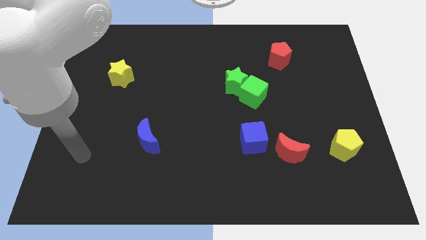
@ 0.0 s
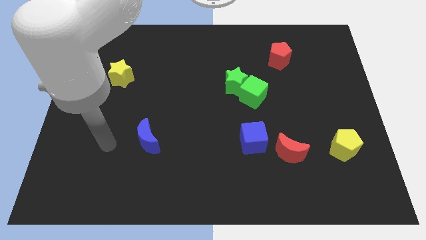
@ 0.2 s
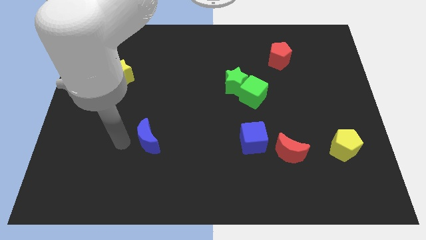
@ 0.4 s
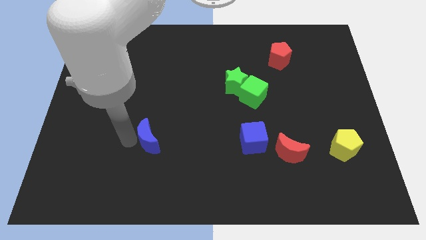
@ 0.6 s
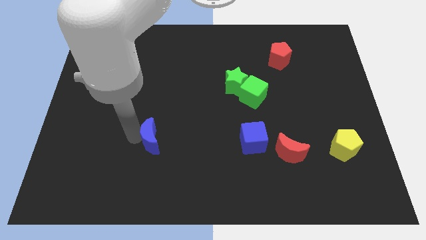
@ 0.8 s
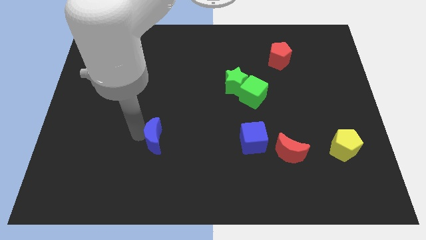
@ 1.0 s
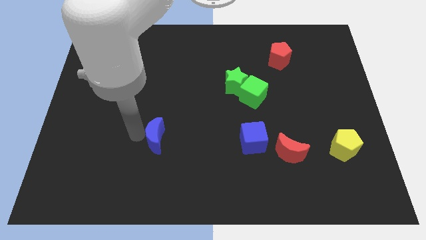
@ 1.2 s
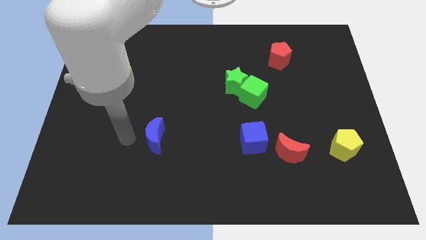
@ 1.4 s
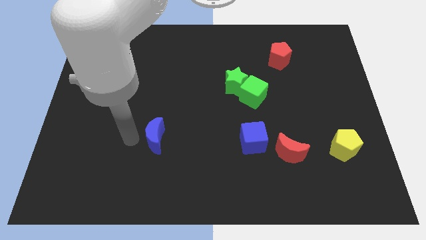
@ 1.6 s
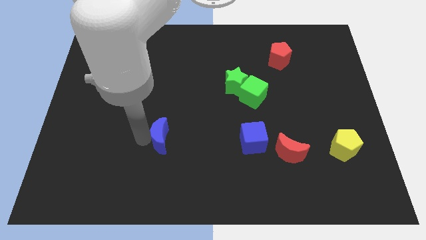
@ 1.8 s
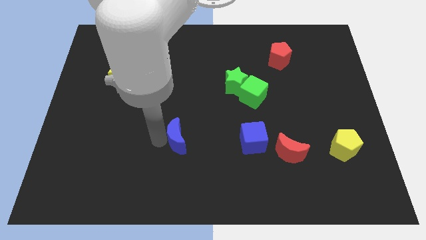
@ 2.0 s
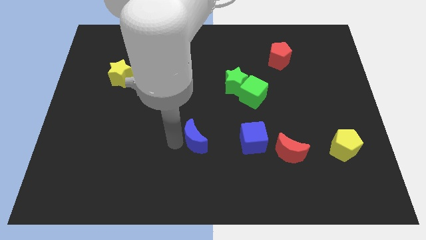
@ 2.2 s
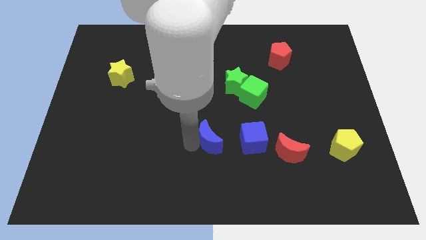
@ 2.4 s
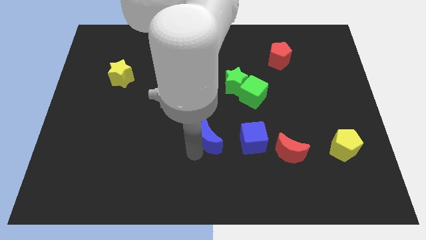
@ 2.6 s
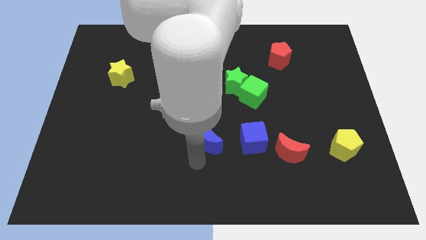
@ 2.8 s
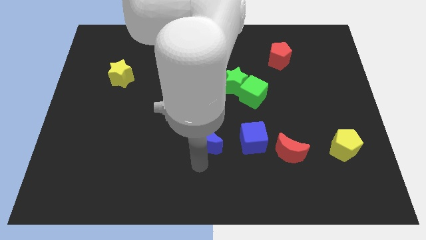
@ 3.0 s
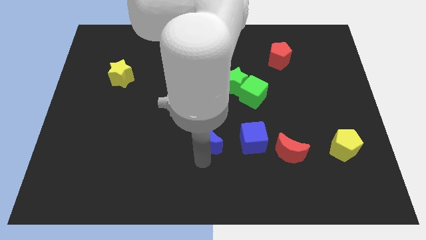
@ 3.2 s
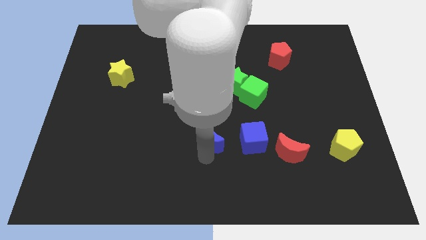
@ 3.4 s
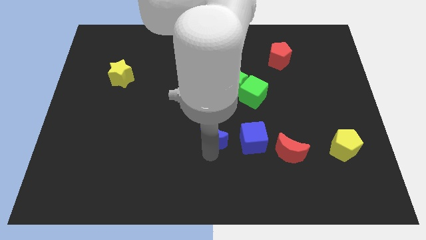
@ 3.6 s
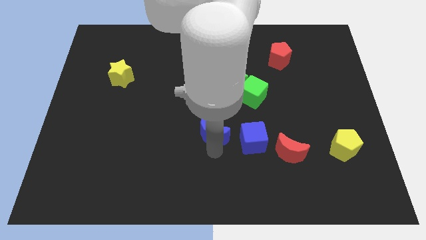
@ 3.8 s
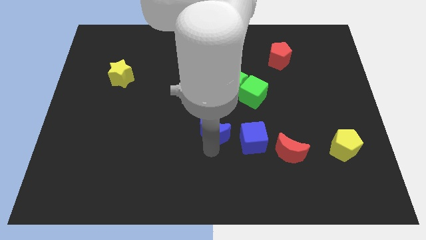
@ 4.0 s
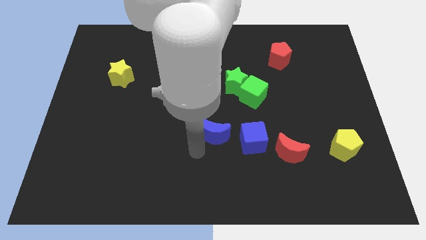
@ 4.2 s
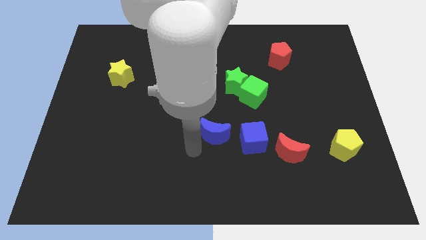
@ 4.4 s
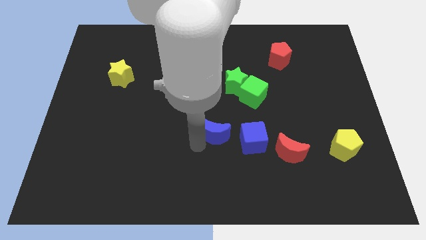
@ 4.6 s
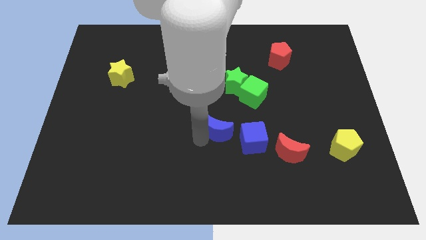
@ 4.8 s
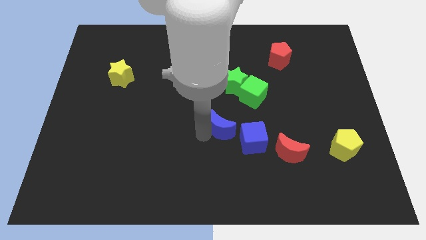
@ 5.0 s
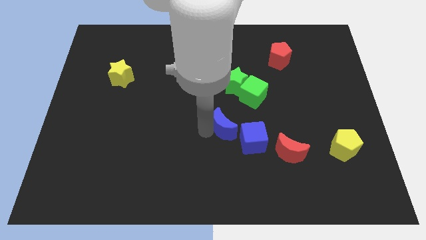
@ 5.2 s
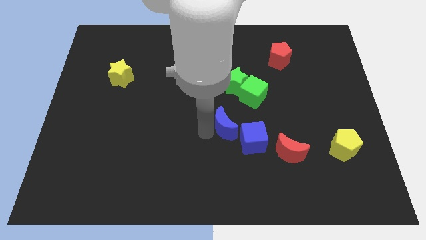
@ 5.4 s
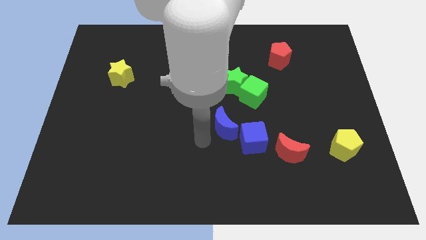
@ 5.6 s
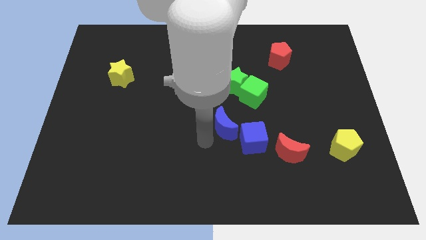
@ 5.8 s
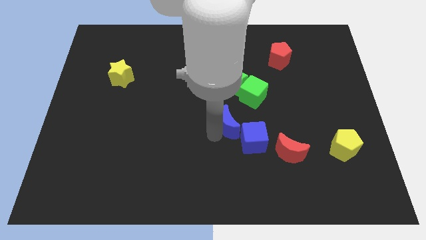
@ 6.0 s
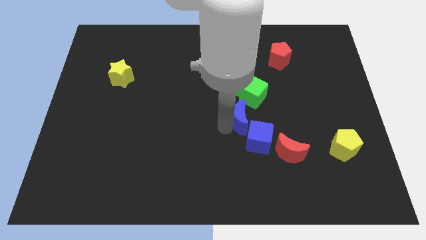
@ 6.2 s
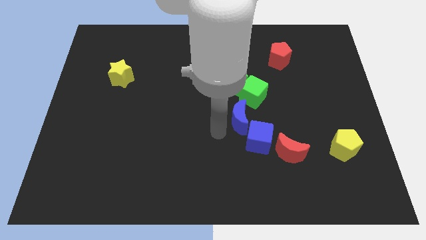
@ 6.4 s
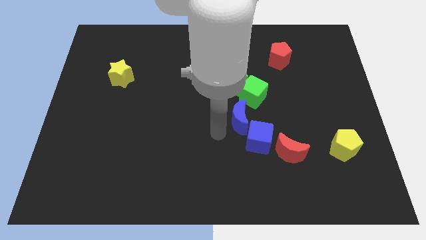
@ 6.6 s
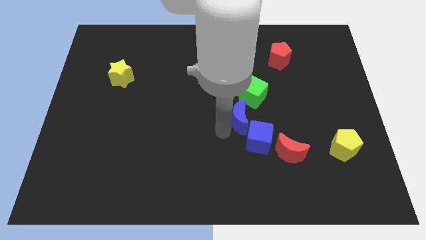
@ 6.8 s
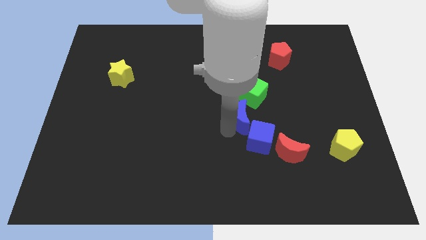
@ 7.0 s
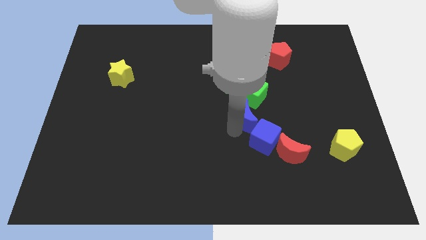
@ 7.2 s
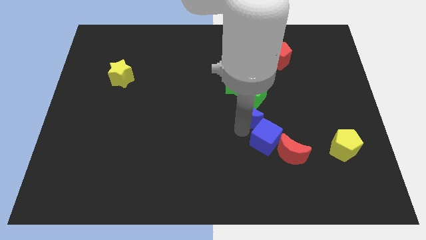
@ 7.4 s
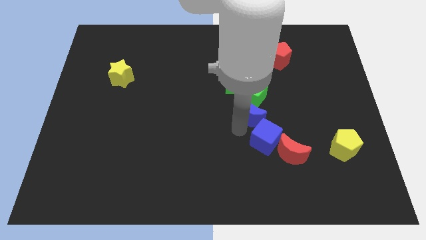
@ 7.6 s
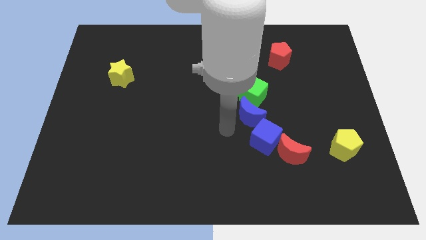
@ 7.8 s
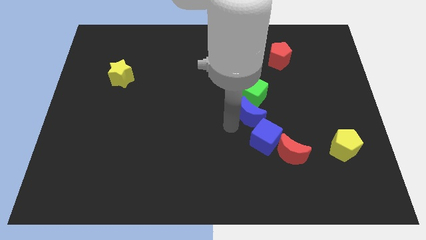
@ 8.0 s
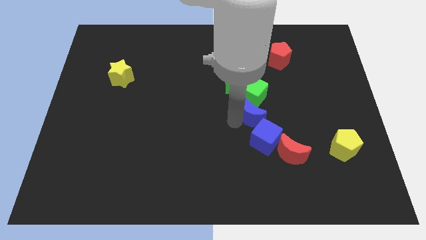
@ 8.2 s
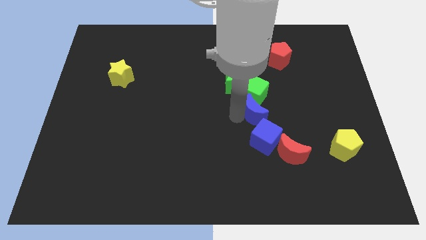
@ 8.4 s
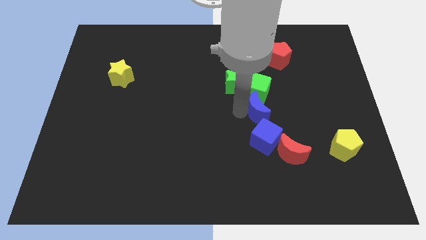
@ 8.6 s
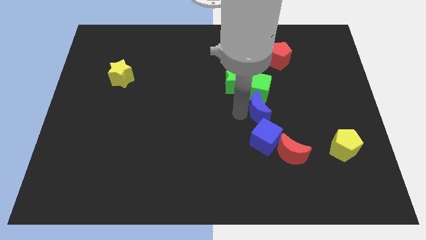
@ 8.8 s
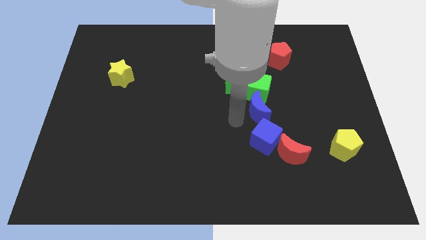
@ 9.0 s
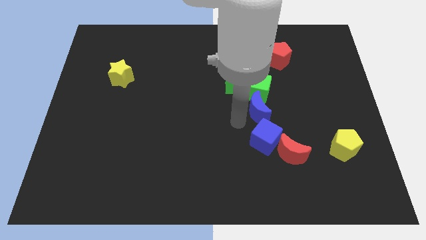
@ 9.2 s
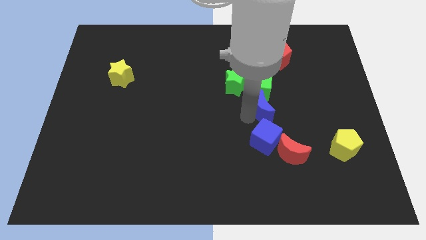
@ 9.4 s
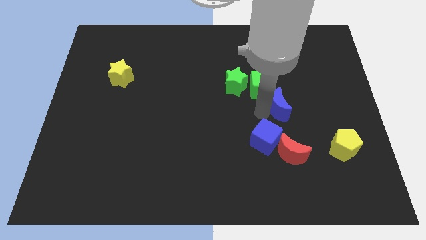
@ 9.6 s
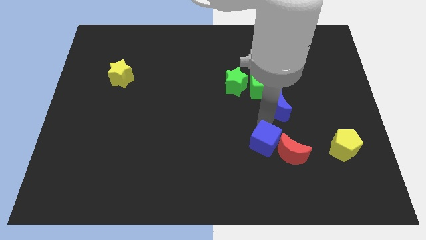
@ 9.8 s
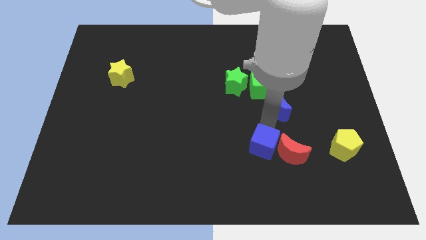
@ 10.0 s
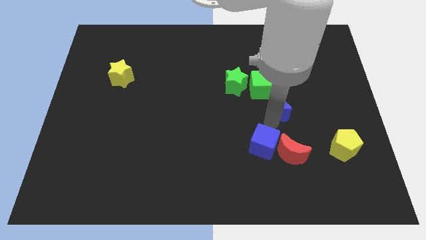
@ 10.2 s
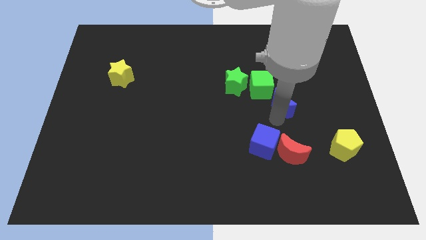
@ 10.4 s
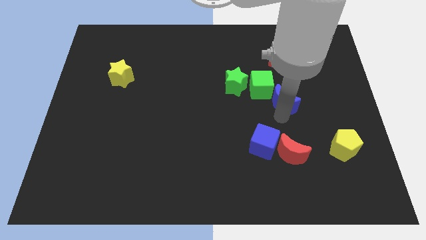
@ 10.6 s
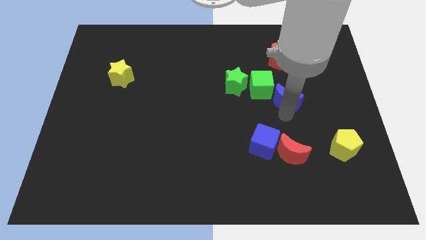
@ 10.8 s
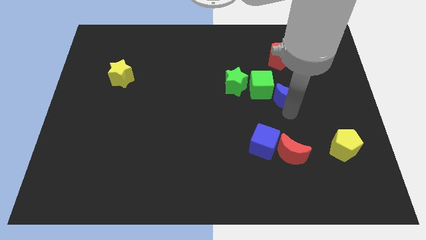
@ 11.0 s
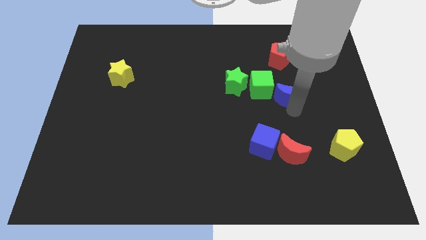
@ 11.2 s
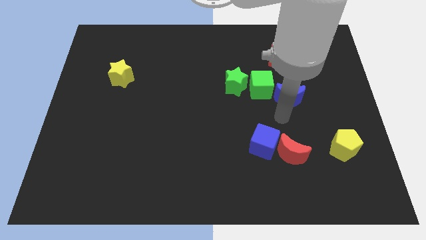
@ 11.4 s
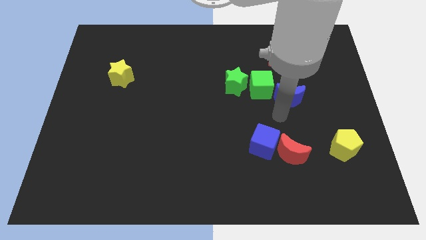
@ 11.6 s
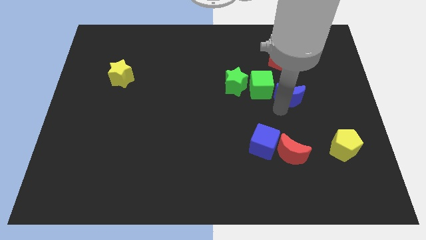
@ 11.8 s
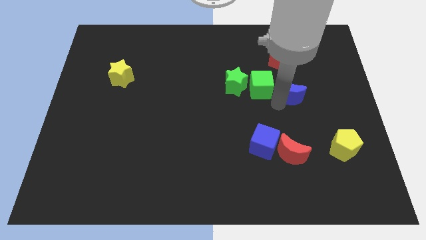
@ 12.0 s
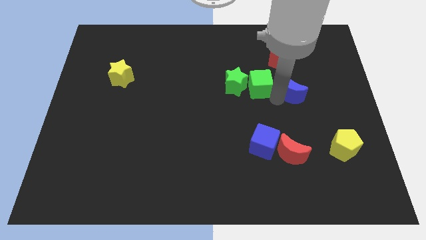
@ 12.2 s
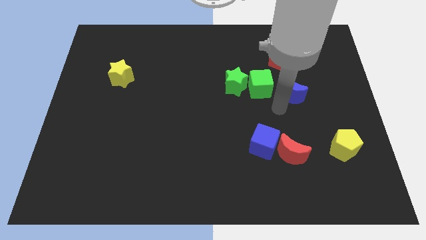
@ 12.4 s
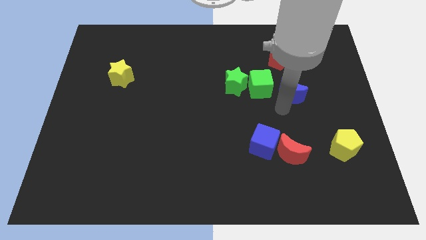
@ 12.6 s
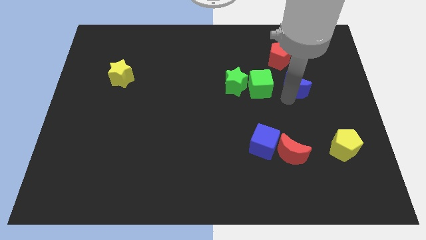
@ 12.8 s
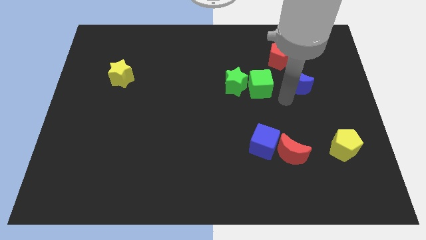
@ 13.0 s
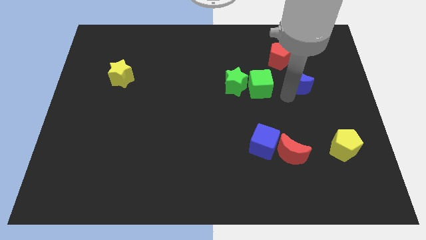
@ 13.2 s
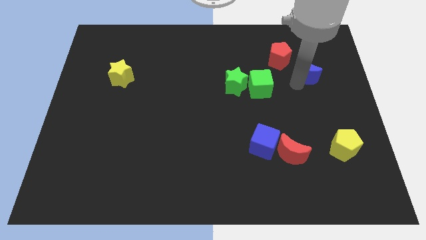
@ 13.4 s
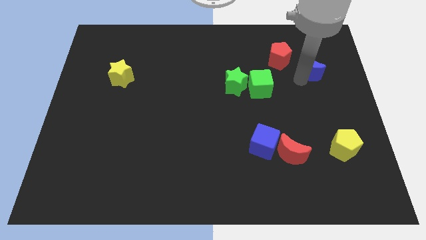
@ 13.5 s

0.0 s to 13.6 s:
move the blue moon to the right of the red pentagon
